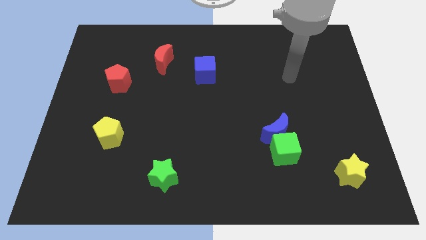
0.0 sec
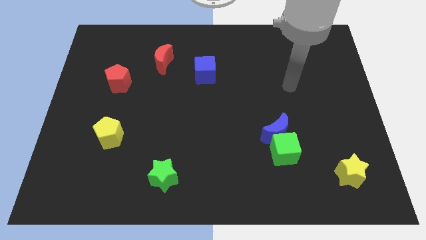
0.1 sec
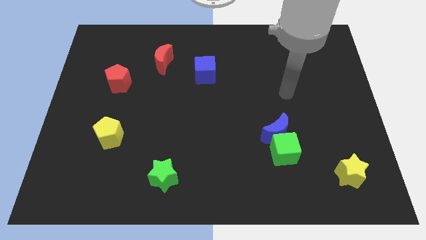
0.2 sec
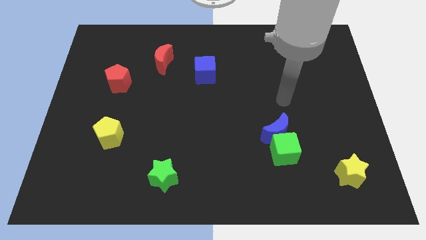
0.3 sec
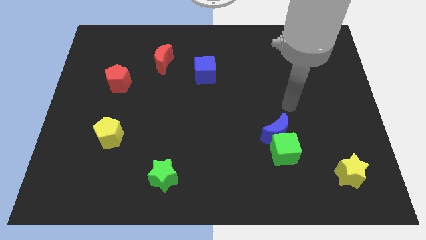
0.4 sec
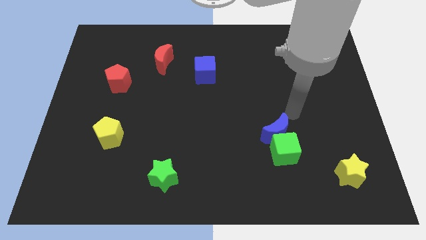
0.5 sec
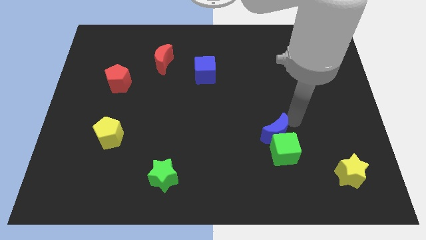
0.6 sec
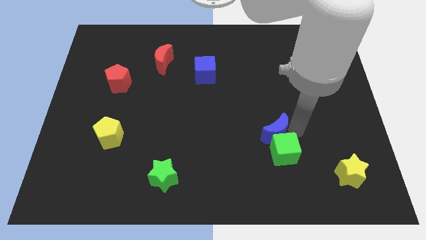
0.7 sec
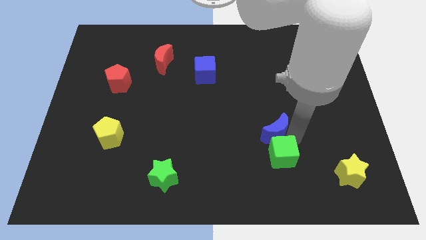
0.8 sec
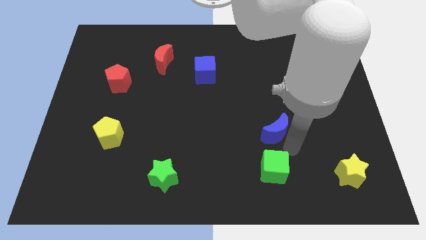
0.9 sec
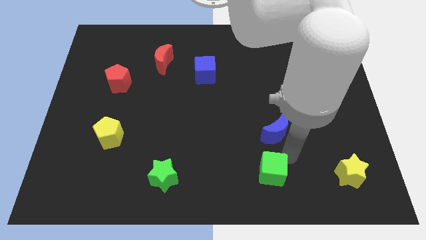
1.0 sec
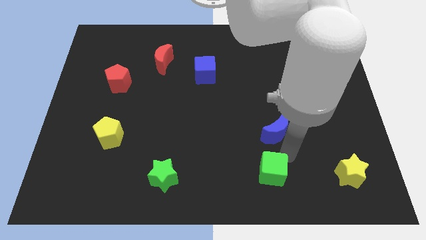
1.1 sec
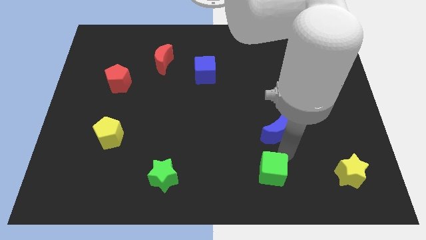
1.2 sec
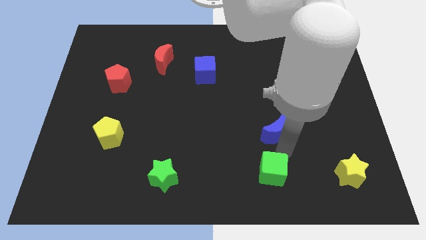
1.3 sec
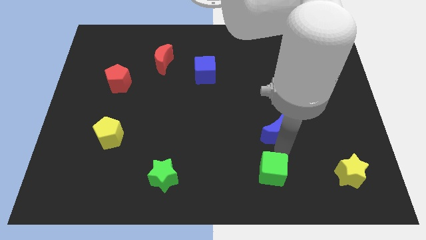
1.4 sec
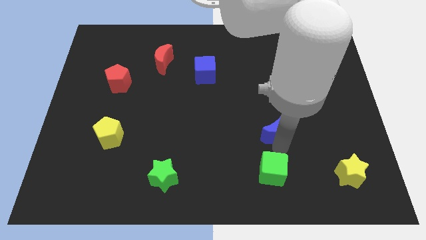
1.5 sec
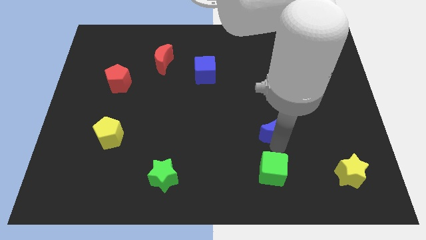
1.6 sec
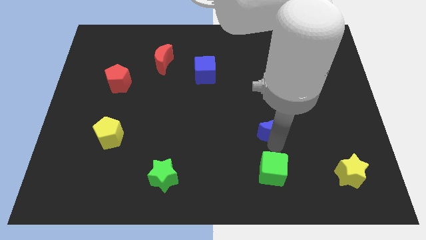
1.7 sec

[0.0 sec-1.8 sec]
separate the blue moon from the green cube

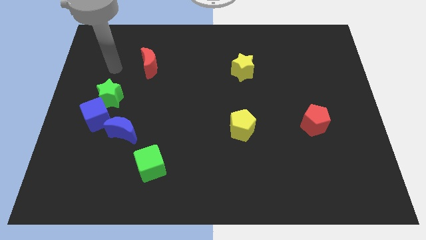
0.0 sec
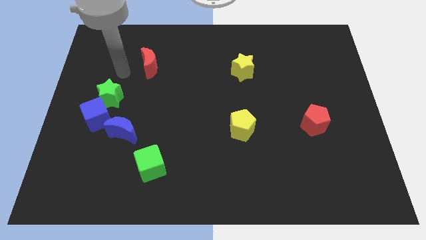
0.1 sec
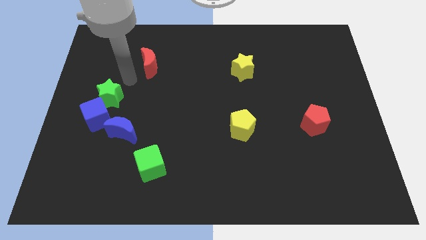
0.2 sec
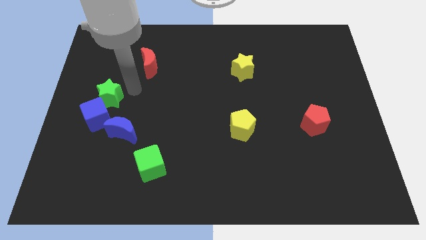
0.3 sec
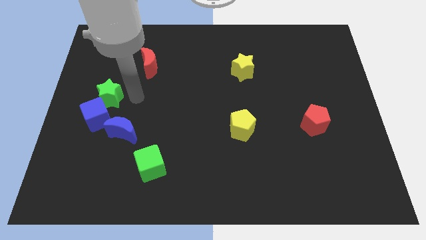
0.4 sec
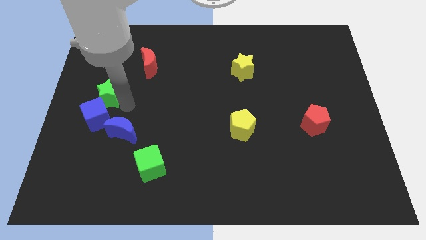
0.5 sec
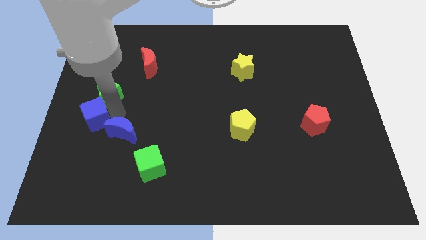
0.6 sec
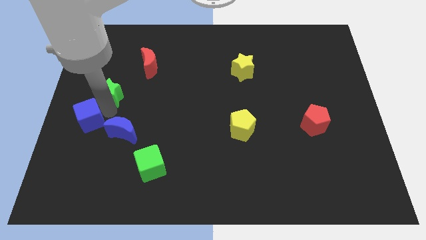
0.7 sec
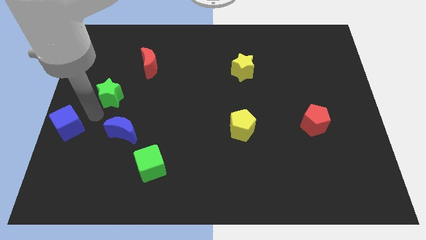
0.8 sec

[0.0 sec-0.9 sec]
pull the green star apart from the blue cube

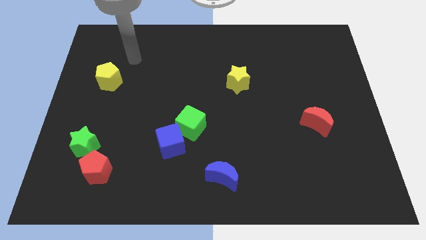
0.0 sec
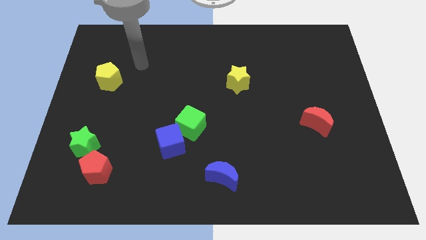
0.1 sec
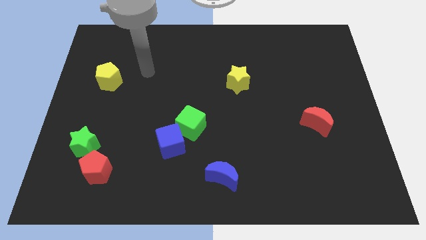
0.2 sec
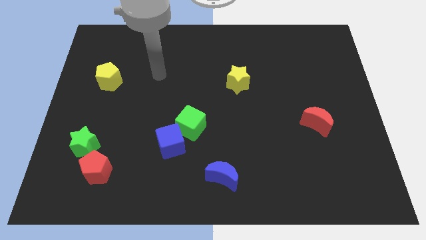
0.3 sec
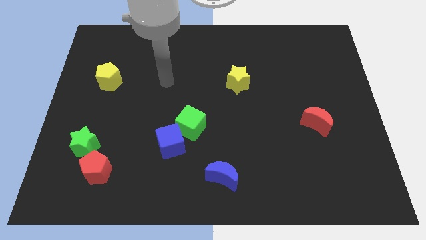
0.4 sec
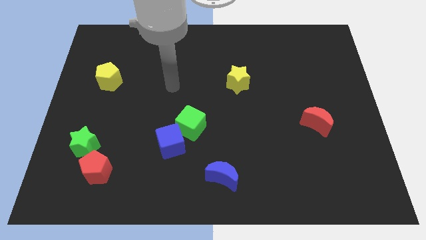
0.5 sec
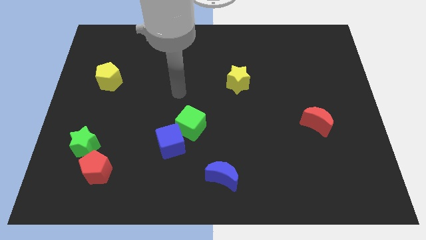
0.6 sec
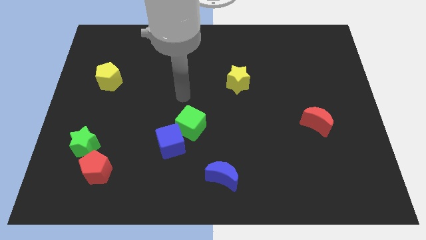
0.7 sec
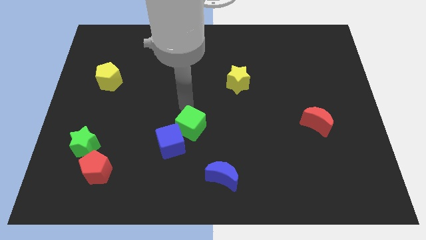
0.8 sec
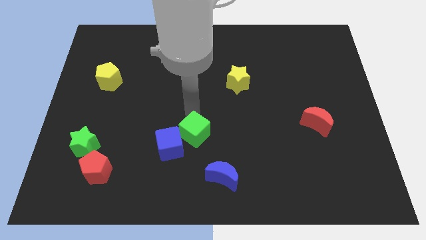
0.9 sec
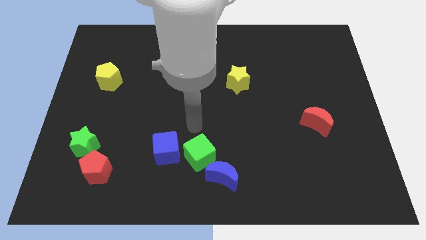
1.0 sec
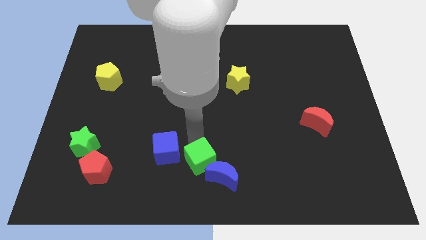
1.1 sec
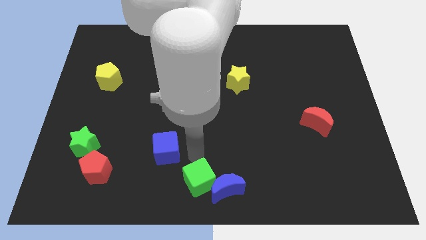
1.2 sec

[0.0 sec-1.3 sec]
pull the blue cube apart from the green cube

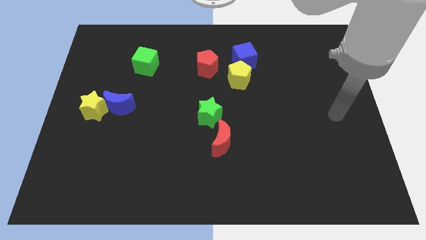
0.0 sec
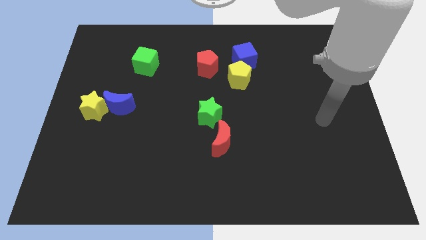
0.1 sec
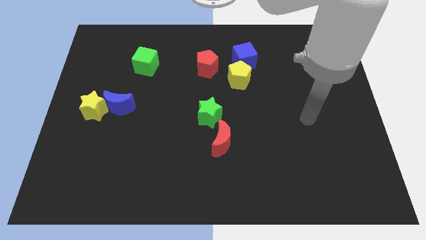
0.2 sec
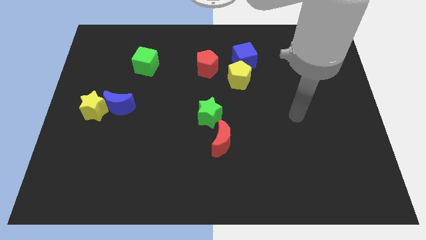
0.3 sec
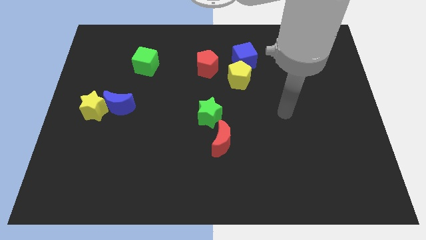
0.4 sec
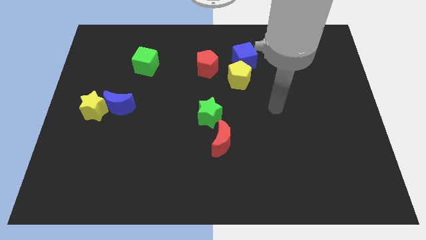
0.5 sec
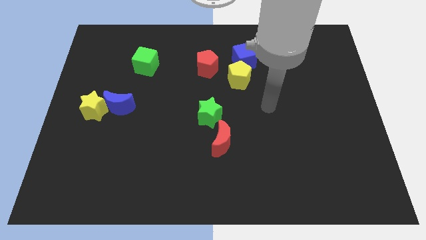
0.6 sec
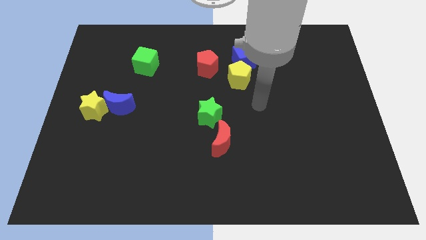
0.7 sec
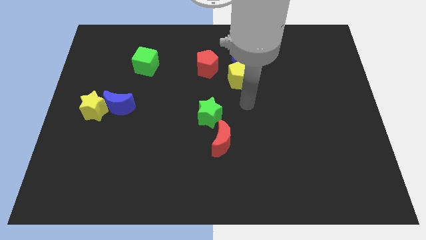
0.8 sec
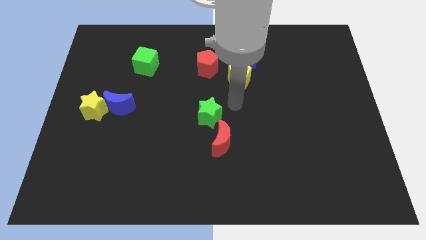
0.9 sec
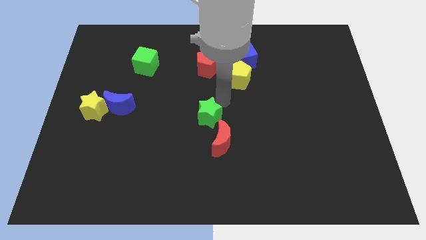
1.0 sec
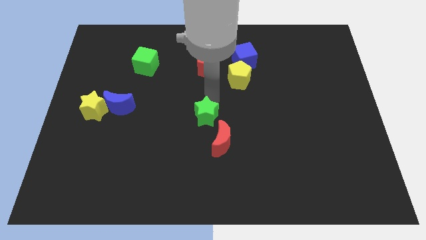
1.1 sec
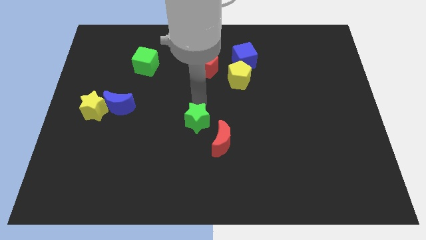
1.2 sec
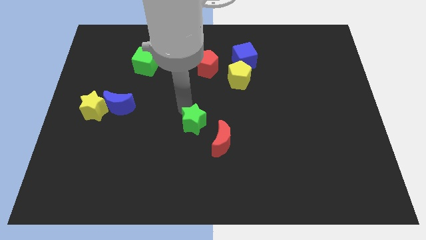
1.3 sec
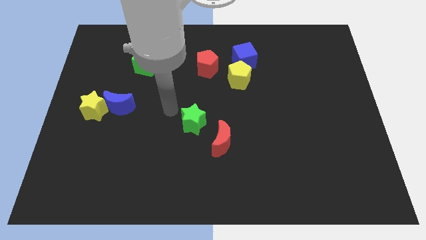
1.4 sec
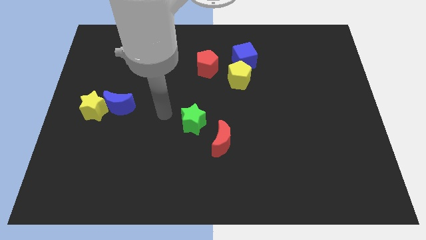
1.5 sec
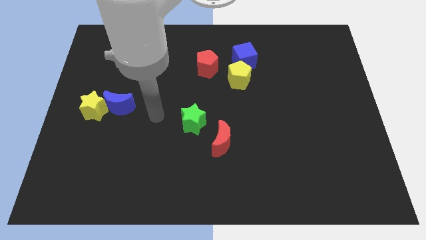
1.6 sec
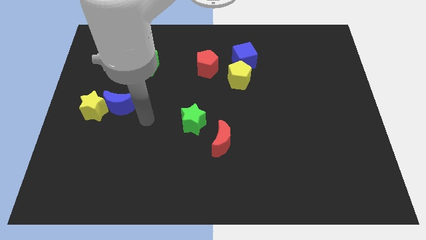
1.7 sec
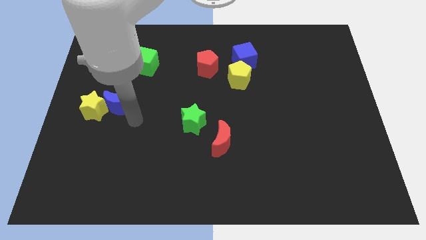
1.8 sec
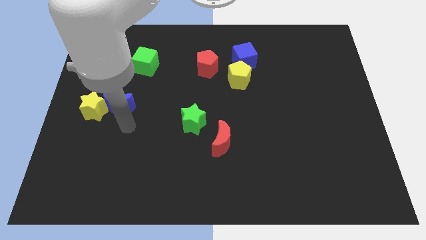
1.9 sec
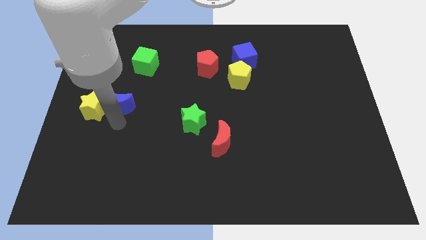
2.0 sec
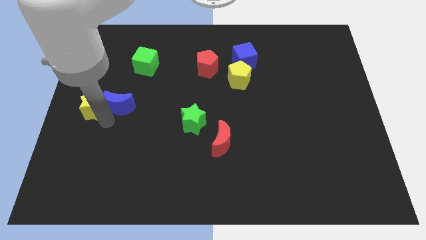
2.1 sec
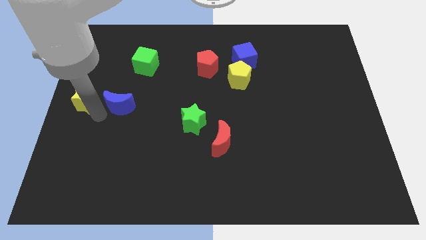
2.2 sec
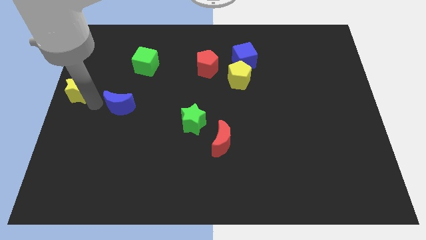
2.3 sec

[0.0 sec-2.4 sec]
separate the blue moon from the yellow star

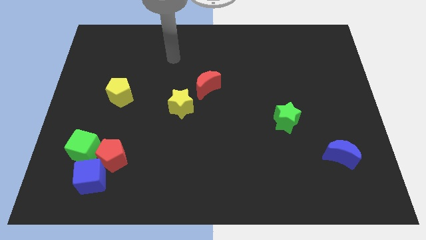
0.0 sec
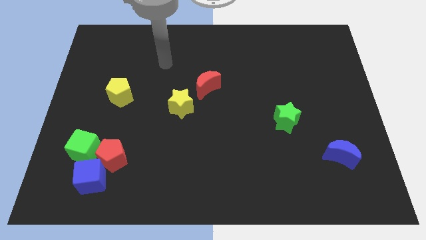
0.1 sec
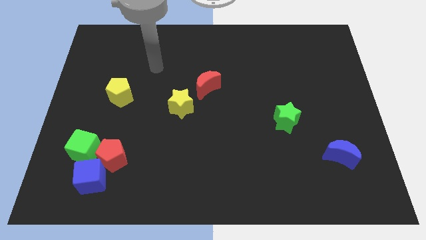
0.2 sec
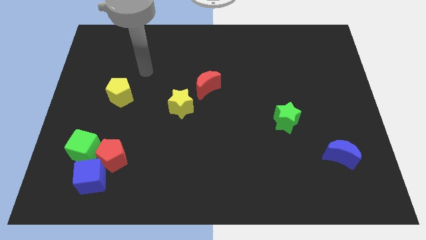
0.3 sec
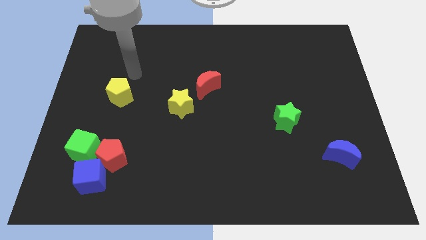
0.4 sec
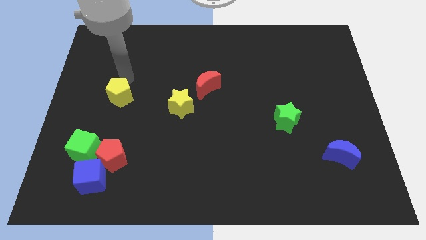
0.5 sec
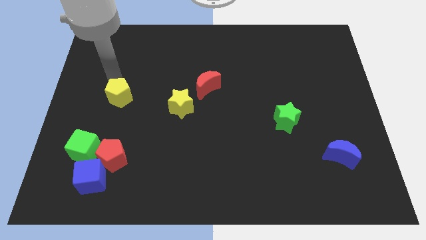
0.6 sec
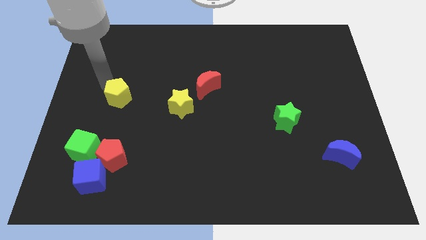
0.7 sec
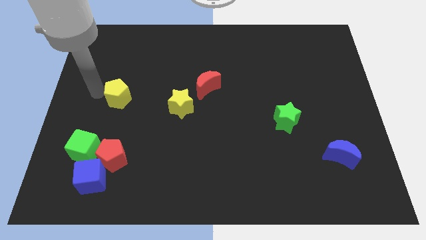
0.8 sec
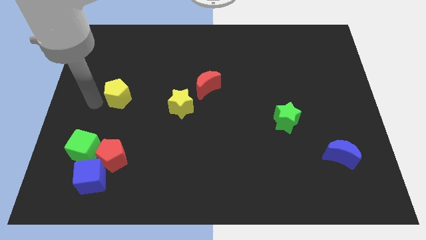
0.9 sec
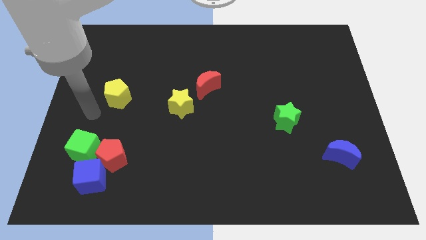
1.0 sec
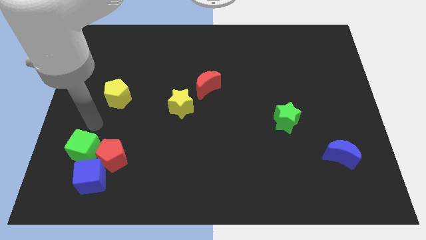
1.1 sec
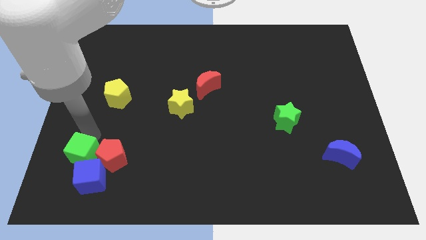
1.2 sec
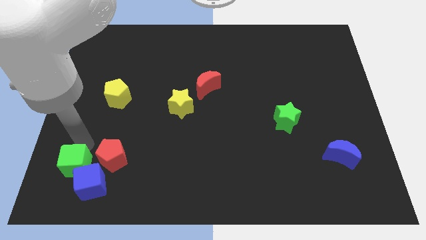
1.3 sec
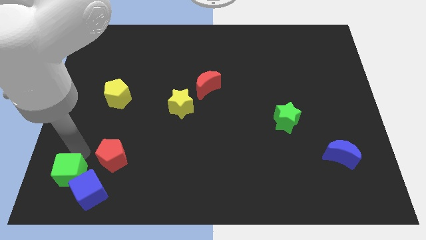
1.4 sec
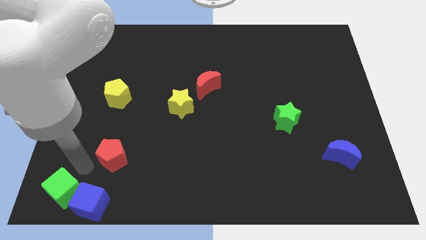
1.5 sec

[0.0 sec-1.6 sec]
move the red pentagon away from the blue cube and green cube

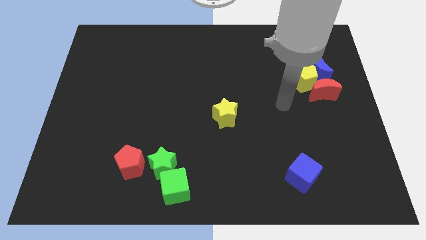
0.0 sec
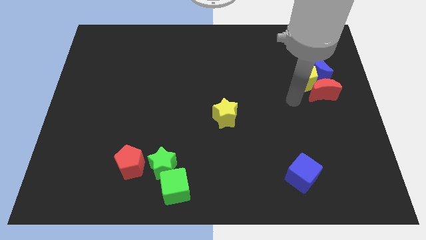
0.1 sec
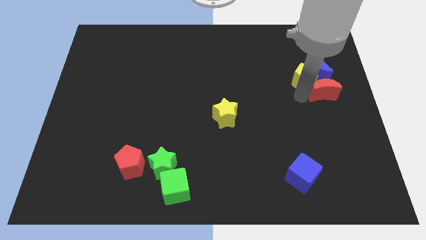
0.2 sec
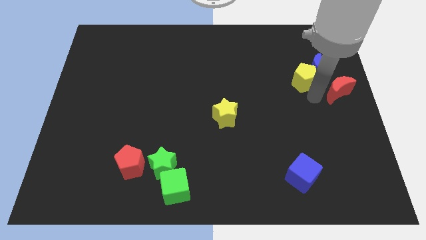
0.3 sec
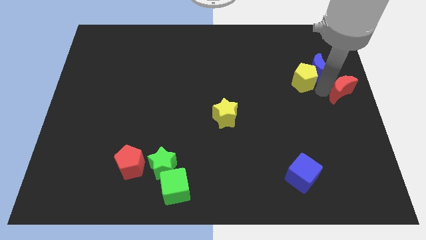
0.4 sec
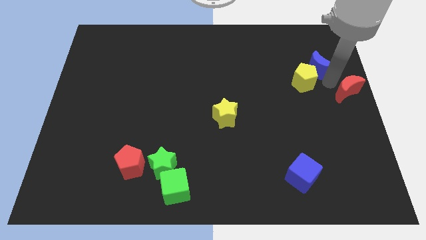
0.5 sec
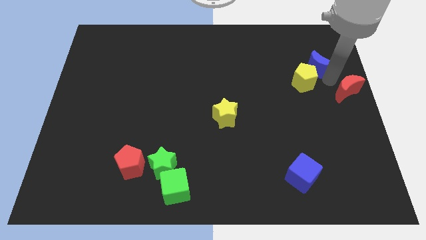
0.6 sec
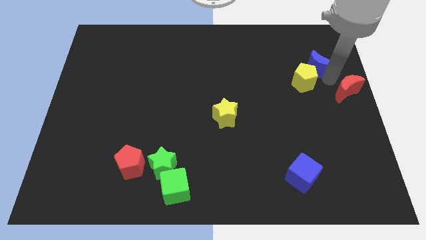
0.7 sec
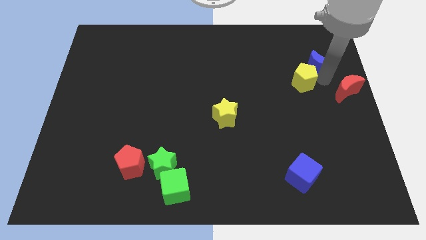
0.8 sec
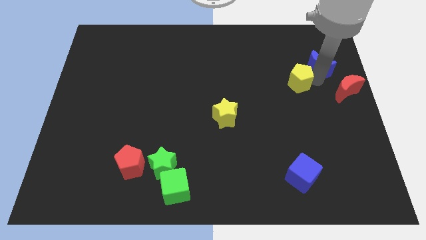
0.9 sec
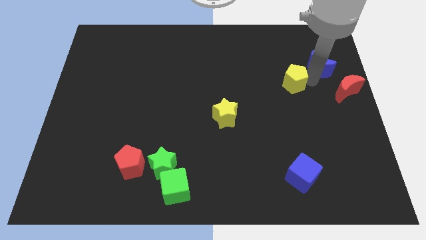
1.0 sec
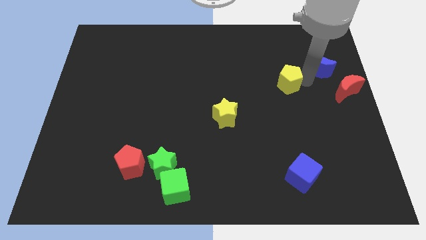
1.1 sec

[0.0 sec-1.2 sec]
pull the yellow pentagon apart from the blue moon and red moon
